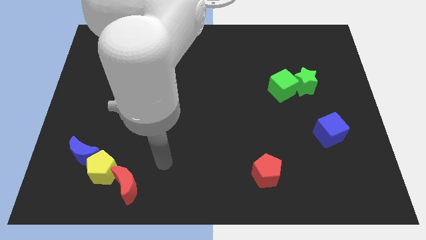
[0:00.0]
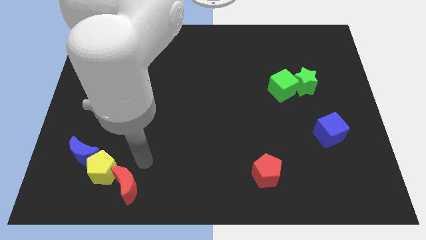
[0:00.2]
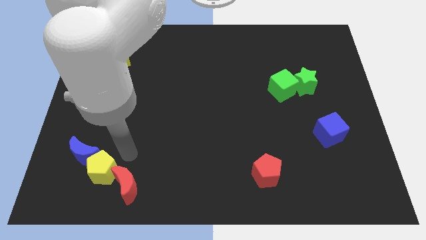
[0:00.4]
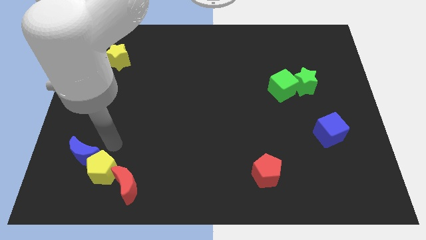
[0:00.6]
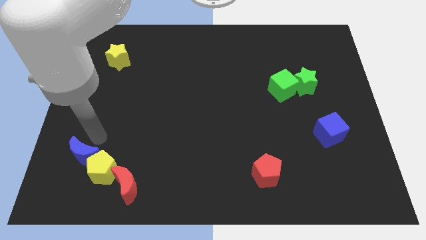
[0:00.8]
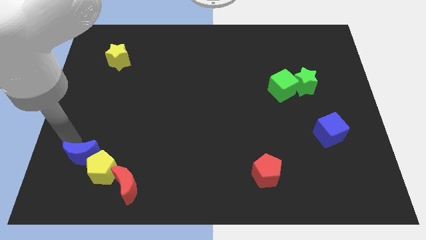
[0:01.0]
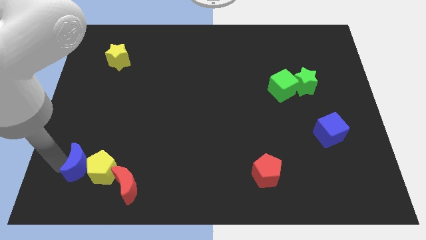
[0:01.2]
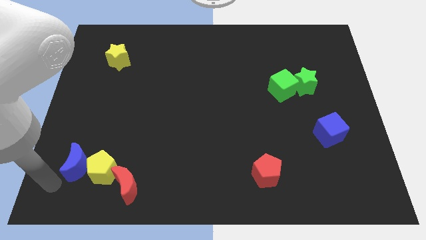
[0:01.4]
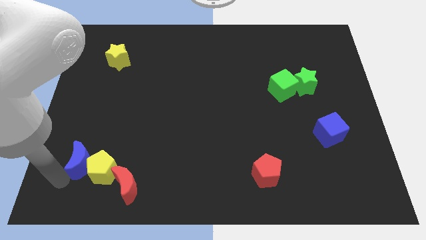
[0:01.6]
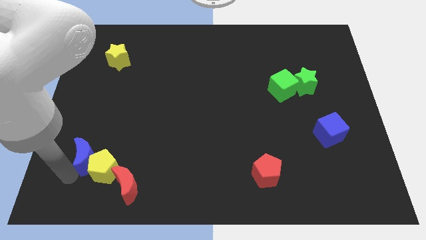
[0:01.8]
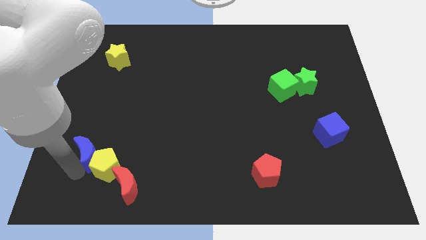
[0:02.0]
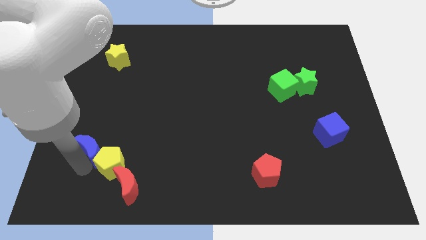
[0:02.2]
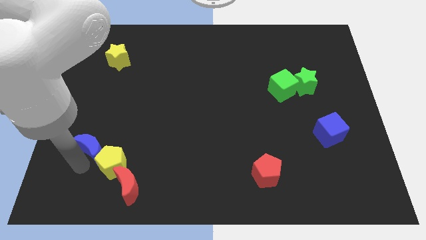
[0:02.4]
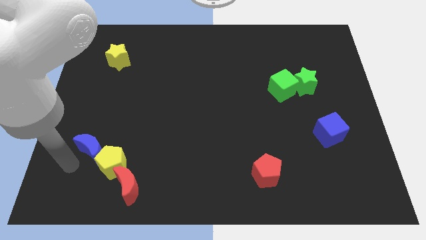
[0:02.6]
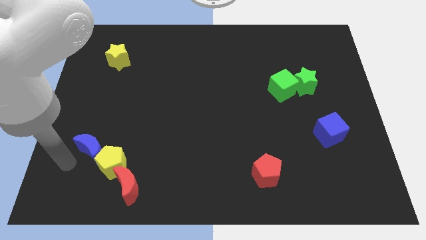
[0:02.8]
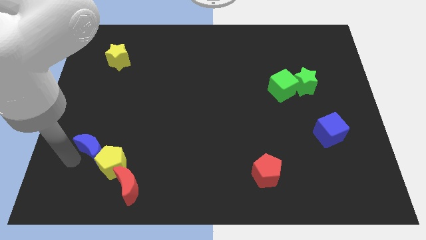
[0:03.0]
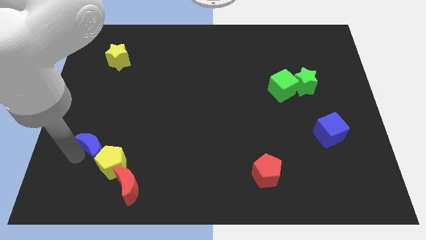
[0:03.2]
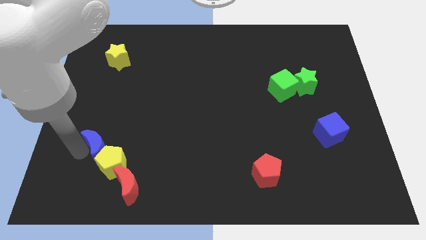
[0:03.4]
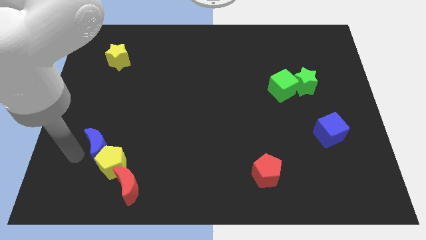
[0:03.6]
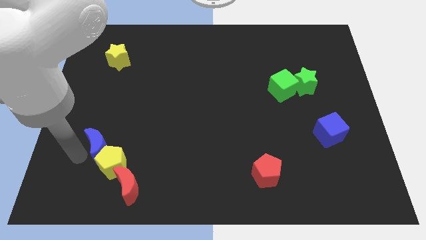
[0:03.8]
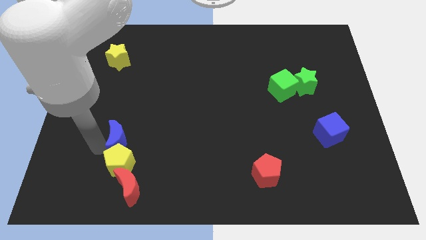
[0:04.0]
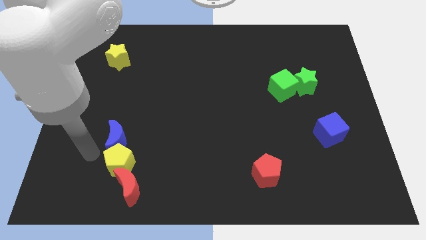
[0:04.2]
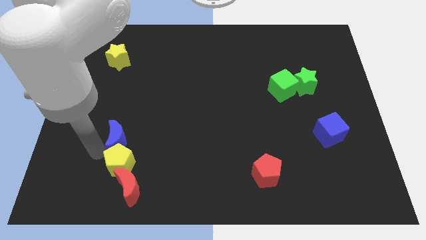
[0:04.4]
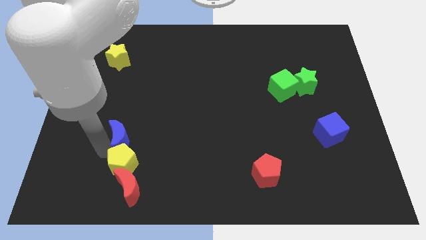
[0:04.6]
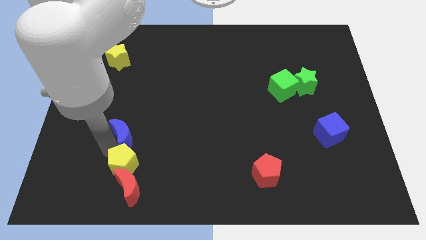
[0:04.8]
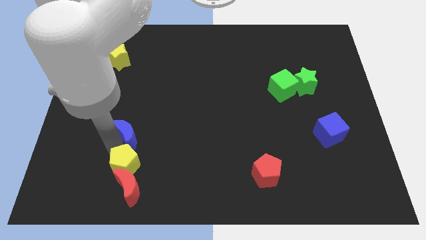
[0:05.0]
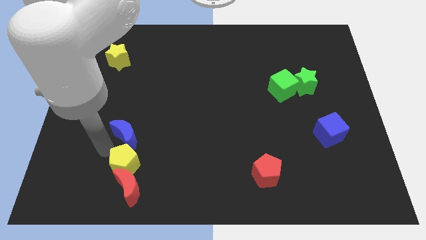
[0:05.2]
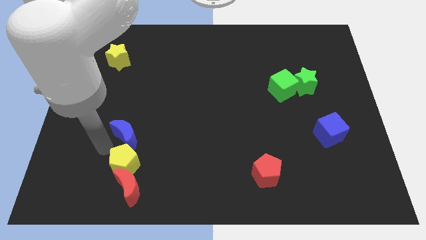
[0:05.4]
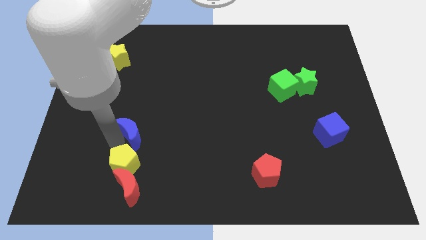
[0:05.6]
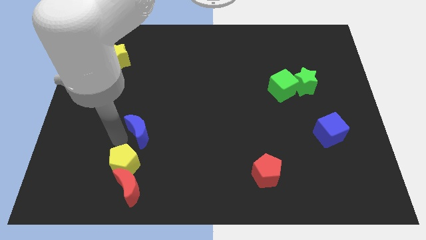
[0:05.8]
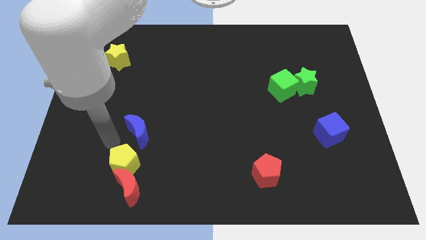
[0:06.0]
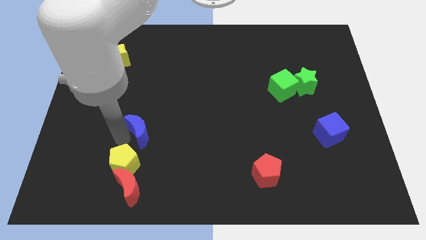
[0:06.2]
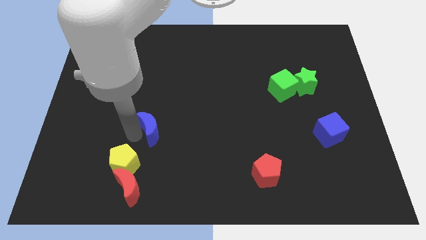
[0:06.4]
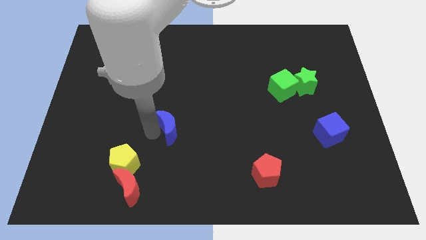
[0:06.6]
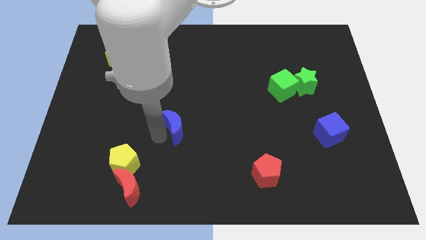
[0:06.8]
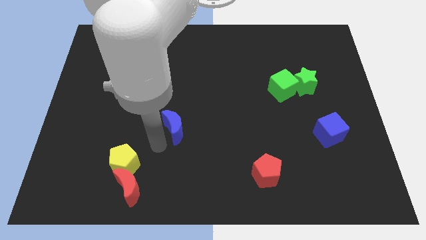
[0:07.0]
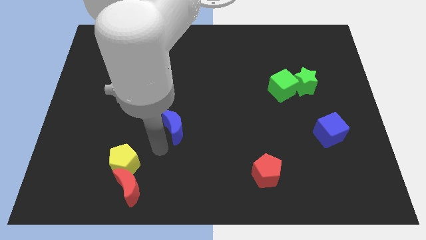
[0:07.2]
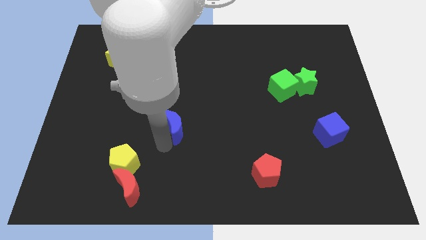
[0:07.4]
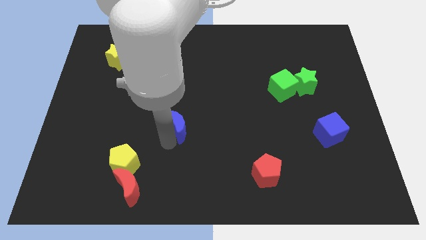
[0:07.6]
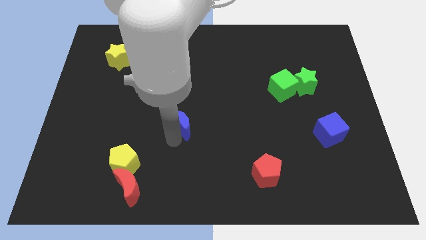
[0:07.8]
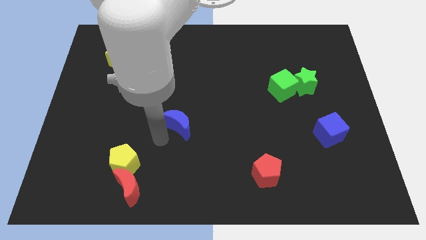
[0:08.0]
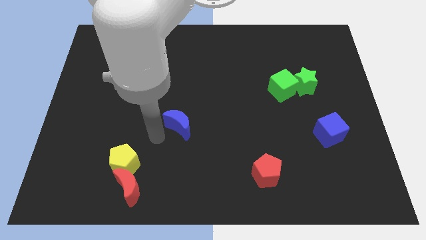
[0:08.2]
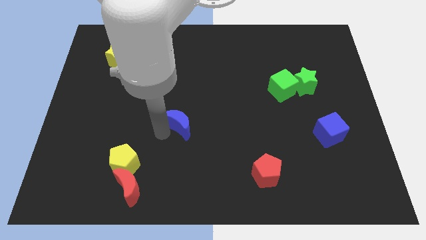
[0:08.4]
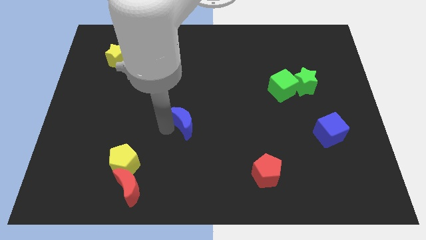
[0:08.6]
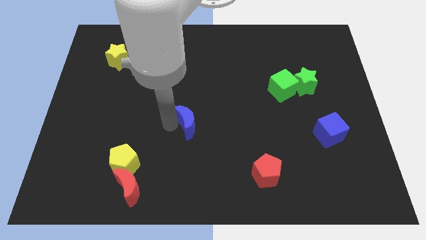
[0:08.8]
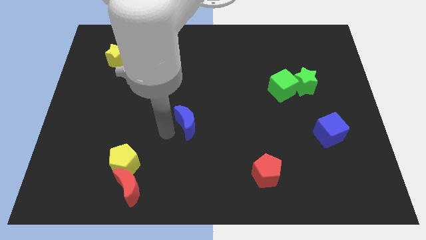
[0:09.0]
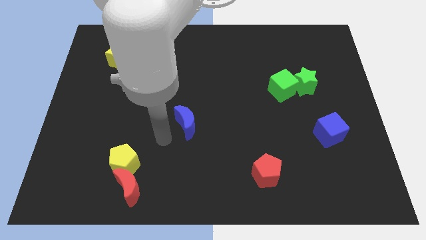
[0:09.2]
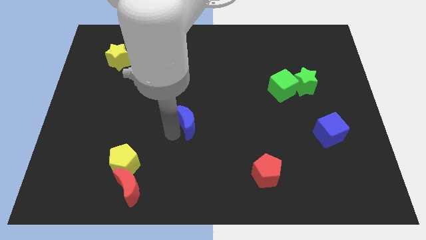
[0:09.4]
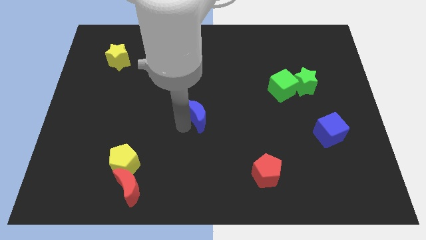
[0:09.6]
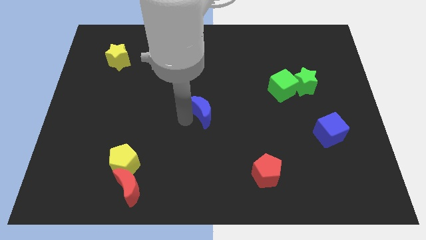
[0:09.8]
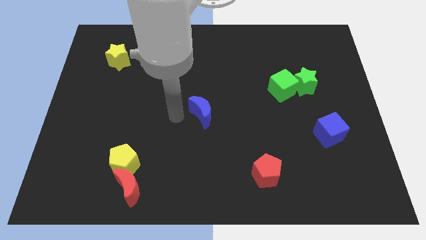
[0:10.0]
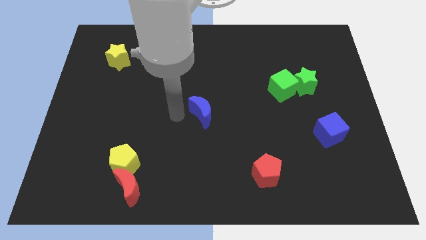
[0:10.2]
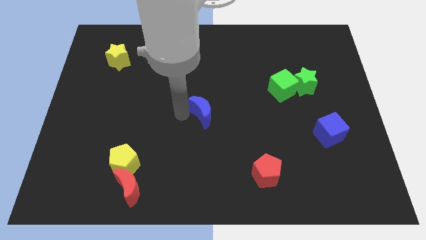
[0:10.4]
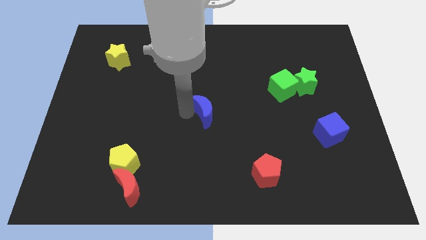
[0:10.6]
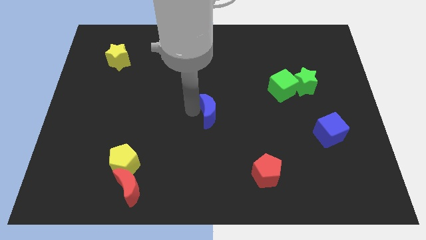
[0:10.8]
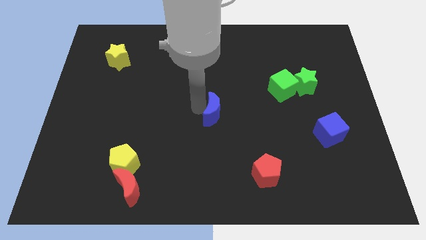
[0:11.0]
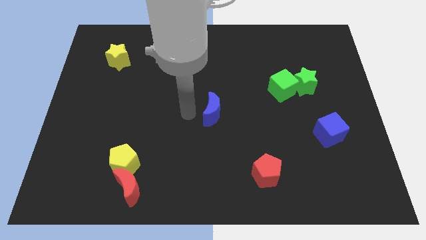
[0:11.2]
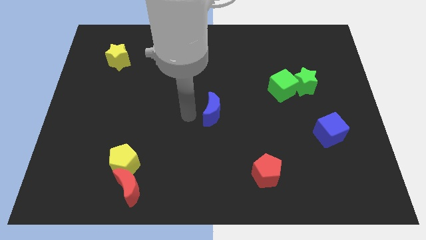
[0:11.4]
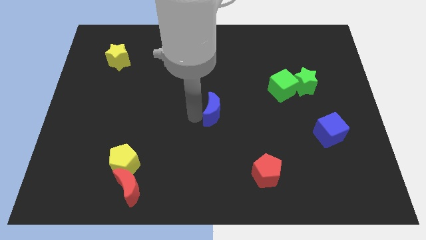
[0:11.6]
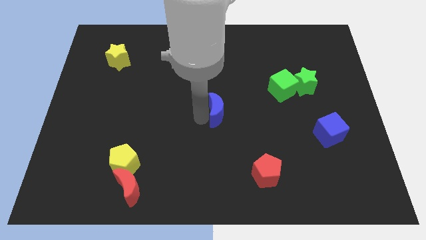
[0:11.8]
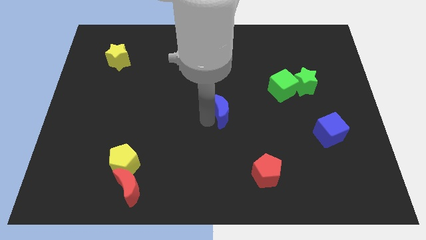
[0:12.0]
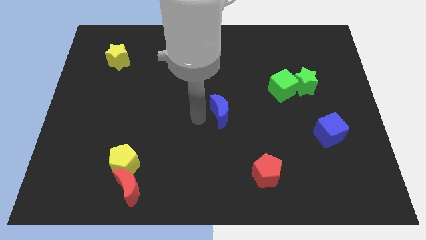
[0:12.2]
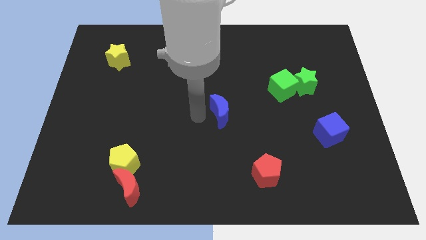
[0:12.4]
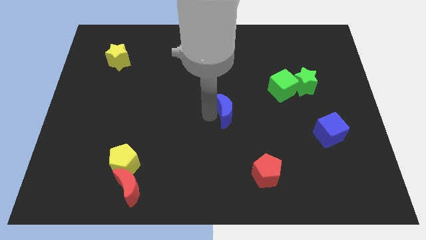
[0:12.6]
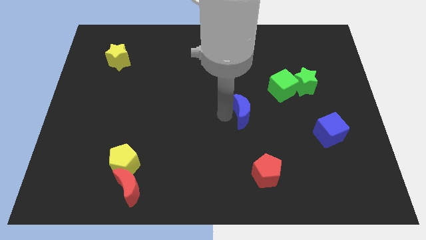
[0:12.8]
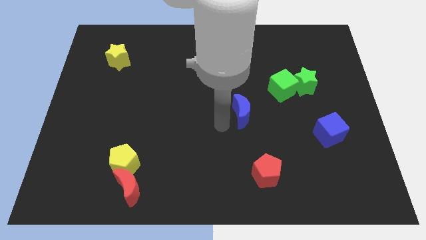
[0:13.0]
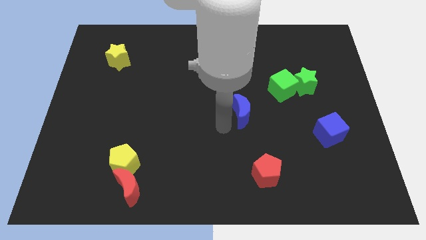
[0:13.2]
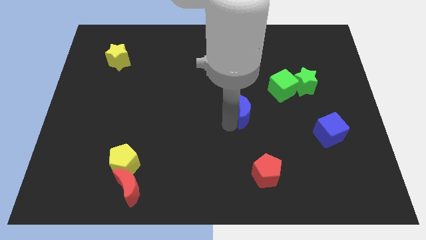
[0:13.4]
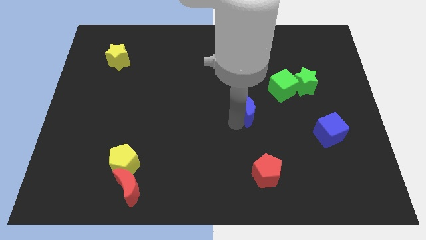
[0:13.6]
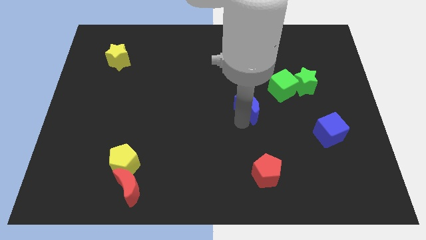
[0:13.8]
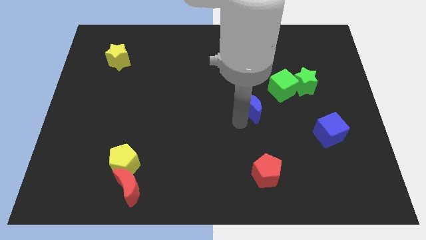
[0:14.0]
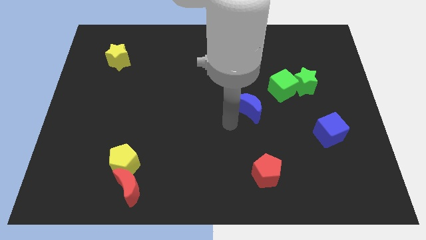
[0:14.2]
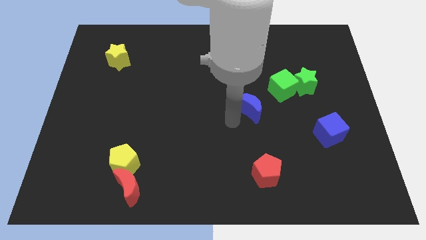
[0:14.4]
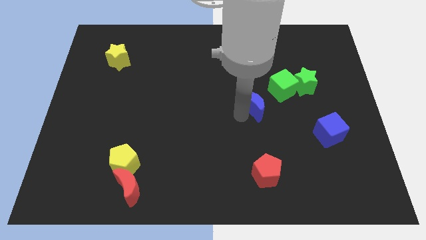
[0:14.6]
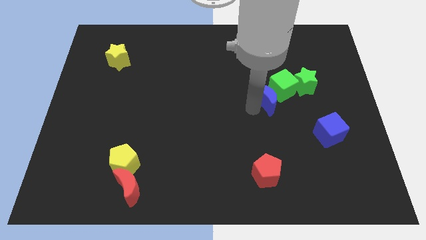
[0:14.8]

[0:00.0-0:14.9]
put the blue moon towards the green cube
